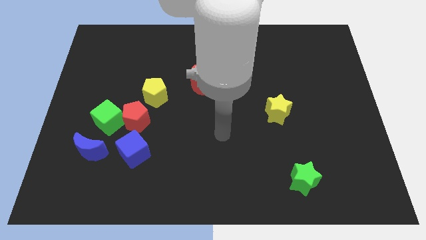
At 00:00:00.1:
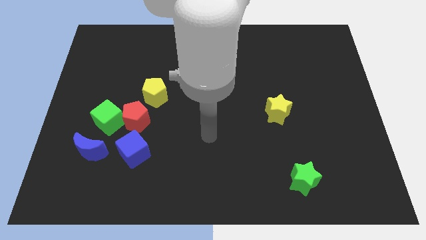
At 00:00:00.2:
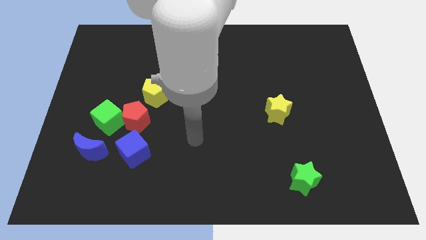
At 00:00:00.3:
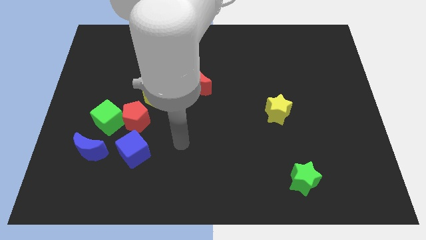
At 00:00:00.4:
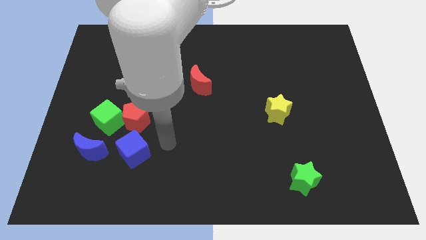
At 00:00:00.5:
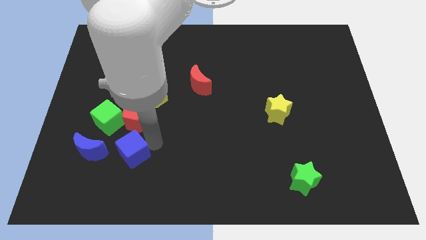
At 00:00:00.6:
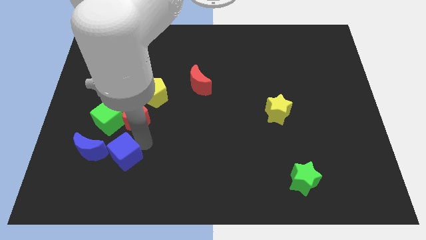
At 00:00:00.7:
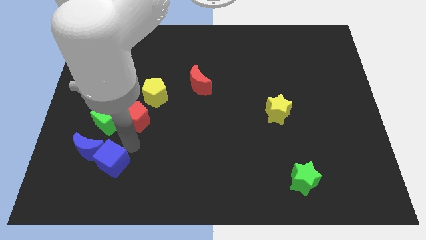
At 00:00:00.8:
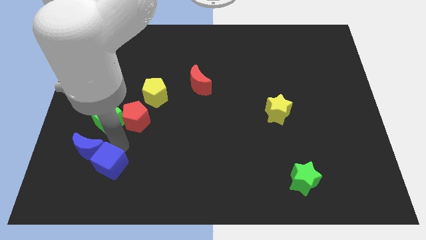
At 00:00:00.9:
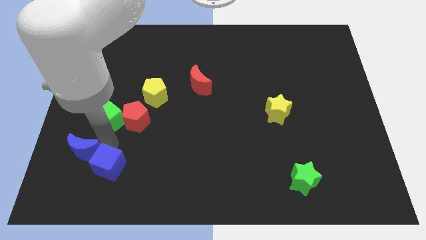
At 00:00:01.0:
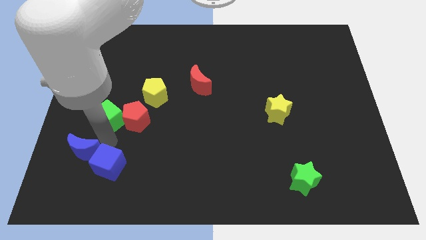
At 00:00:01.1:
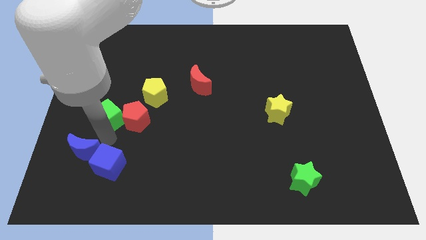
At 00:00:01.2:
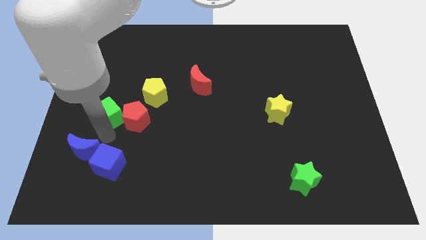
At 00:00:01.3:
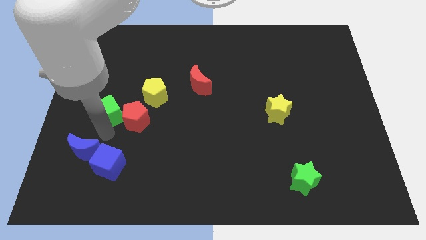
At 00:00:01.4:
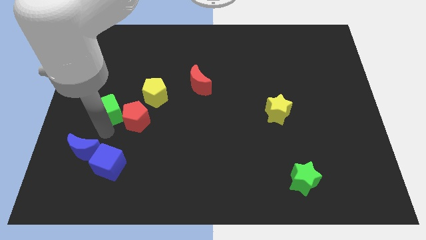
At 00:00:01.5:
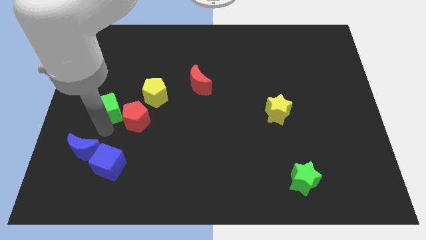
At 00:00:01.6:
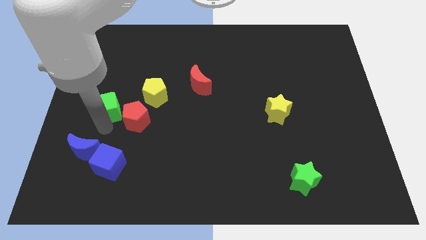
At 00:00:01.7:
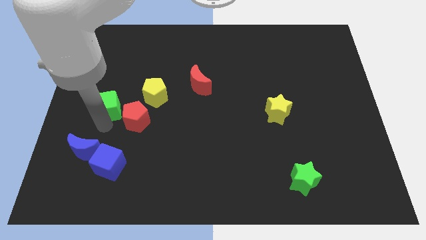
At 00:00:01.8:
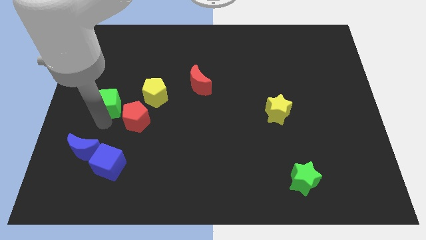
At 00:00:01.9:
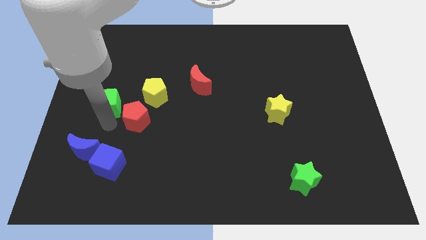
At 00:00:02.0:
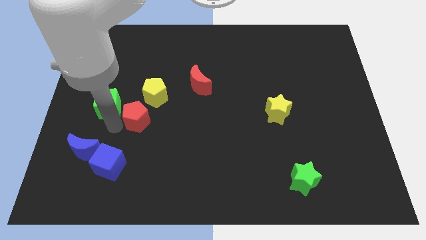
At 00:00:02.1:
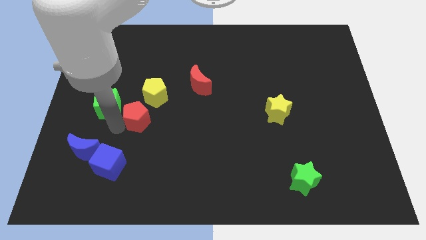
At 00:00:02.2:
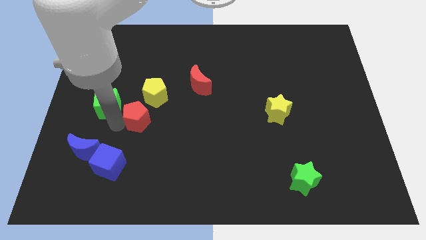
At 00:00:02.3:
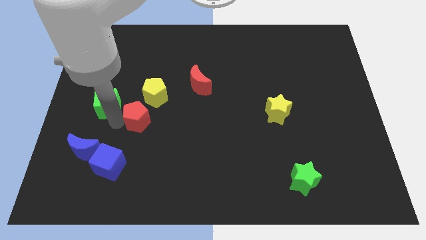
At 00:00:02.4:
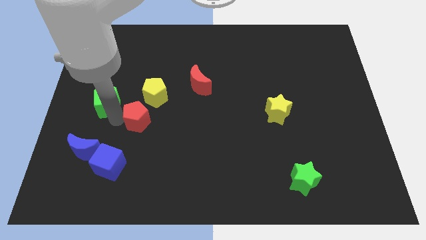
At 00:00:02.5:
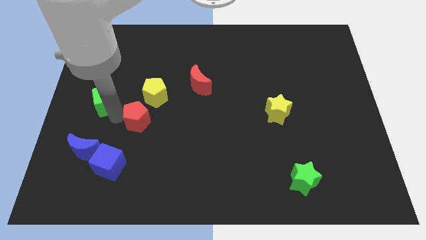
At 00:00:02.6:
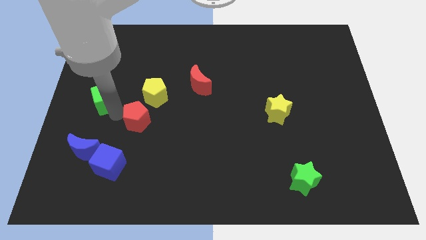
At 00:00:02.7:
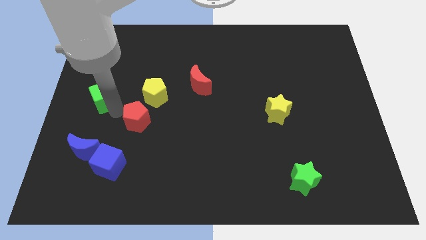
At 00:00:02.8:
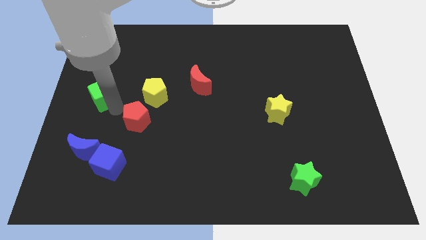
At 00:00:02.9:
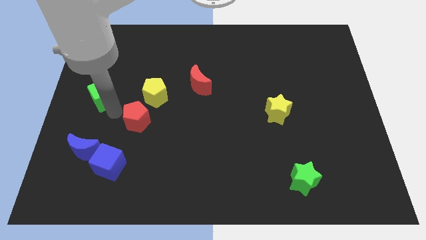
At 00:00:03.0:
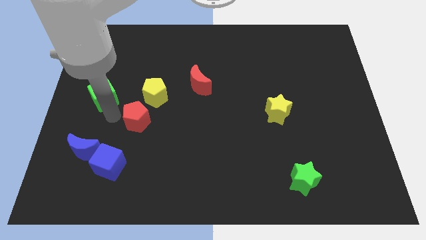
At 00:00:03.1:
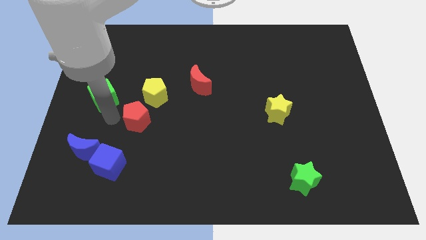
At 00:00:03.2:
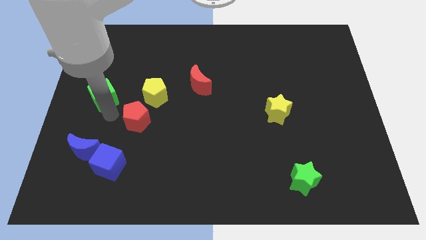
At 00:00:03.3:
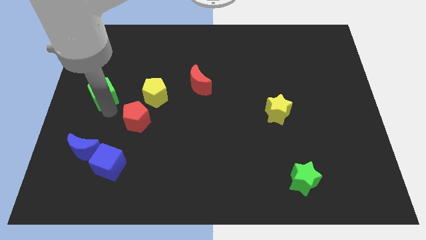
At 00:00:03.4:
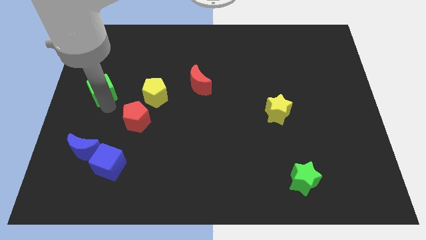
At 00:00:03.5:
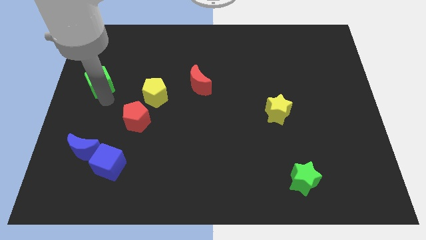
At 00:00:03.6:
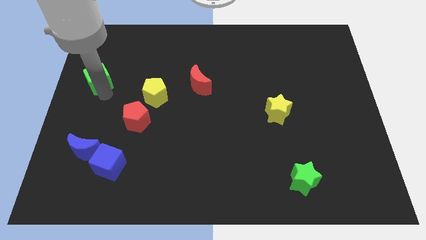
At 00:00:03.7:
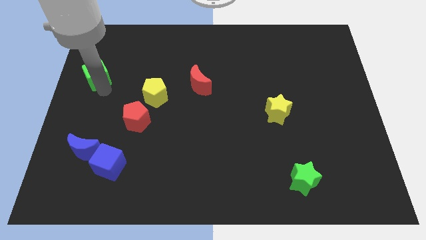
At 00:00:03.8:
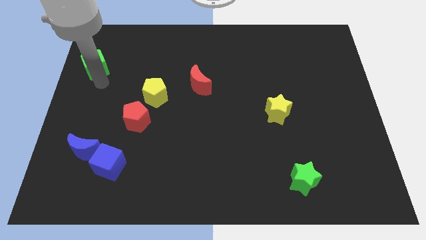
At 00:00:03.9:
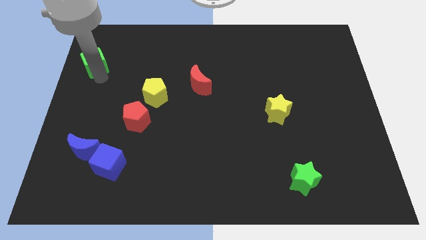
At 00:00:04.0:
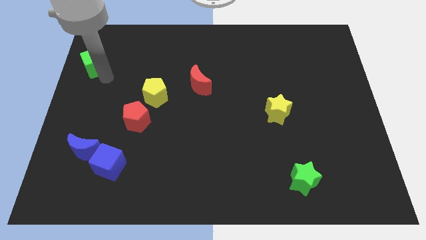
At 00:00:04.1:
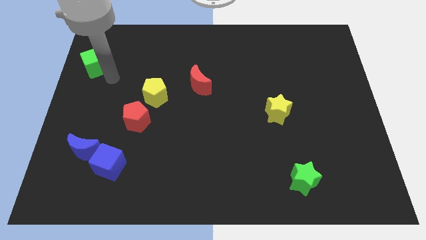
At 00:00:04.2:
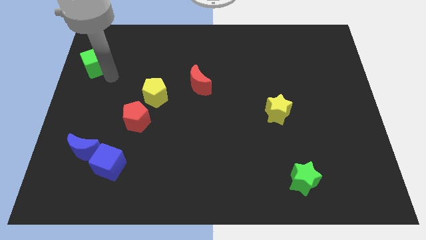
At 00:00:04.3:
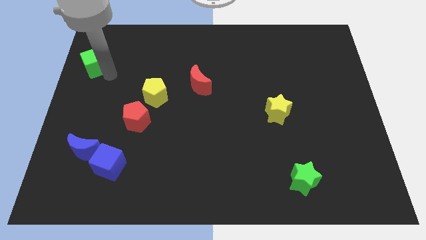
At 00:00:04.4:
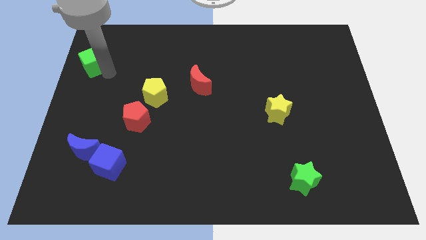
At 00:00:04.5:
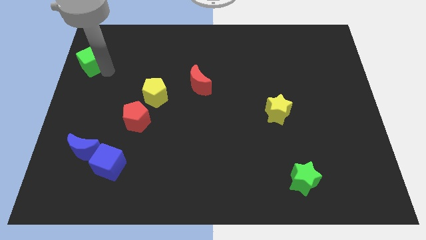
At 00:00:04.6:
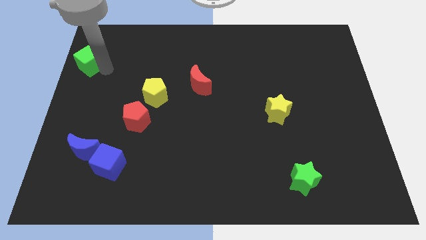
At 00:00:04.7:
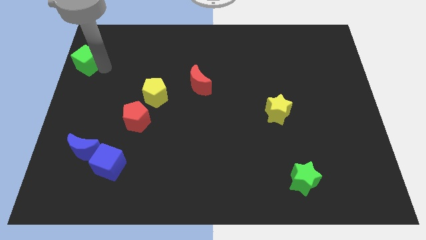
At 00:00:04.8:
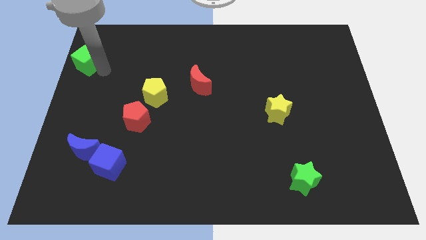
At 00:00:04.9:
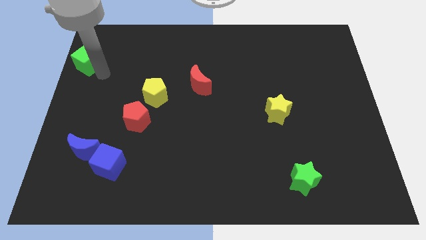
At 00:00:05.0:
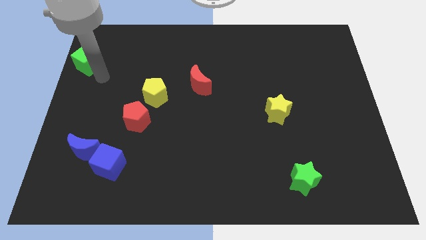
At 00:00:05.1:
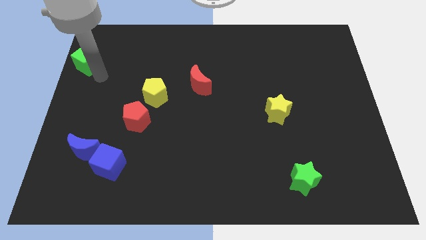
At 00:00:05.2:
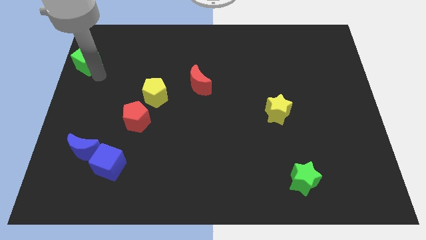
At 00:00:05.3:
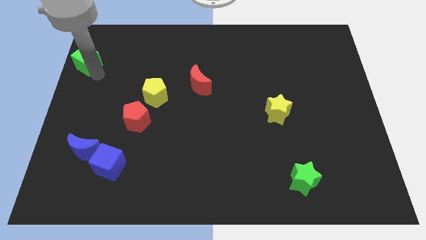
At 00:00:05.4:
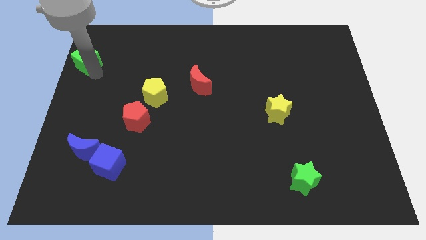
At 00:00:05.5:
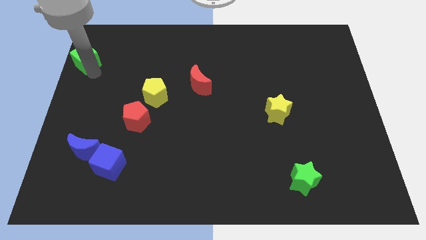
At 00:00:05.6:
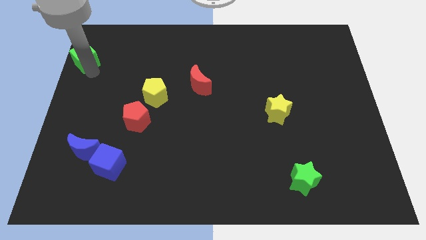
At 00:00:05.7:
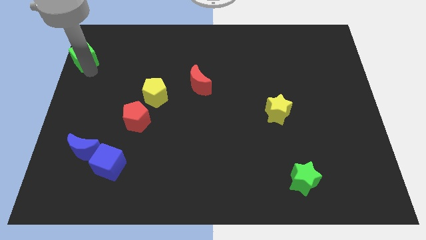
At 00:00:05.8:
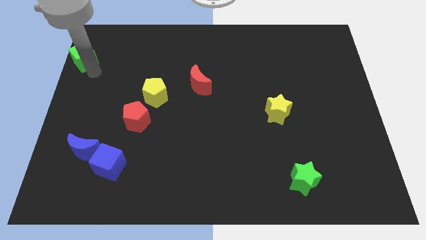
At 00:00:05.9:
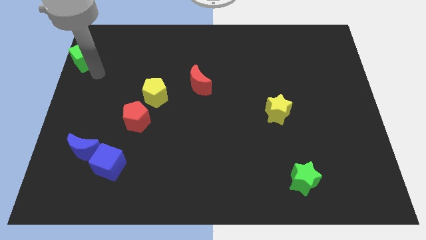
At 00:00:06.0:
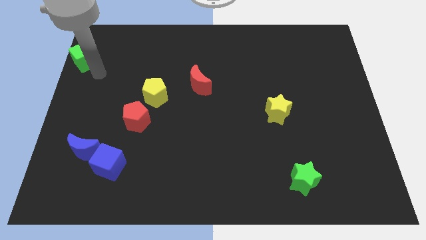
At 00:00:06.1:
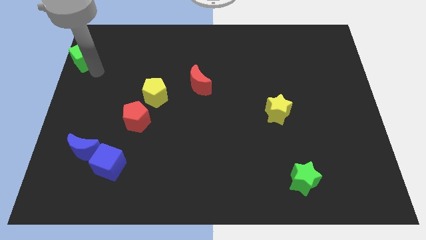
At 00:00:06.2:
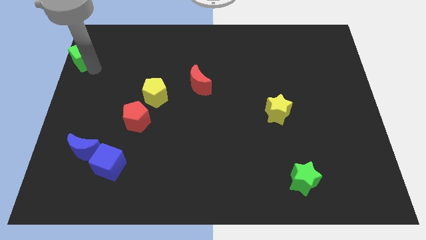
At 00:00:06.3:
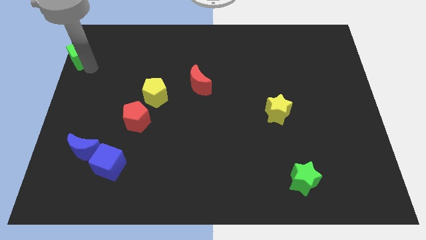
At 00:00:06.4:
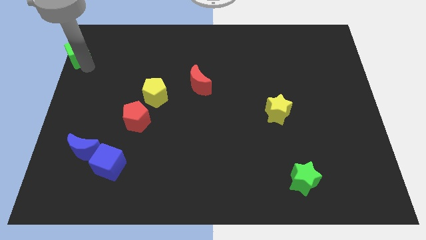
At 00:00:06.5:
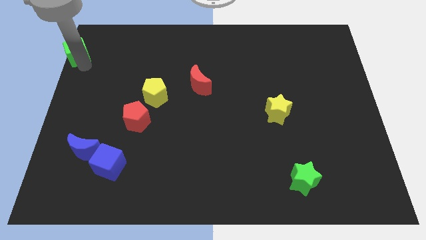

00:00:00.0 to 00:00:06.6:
slide the green cube to the top left of the board

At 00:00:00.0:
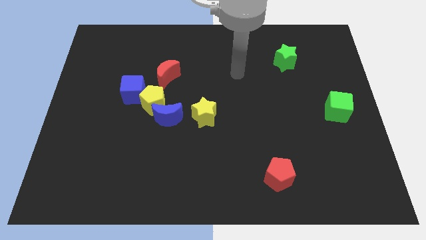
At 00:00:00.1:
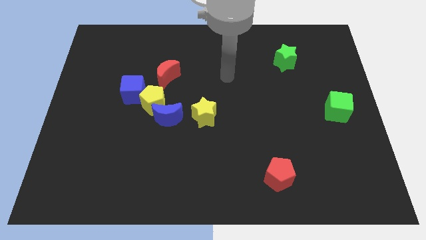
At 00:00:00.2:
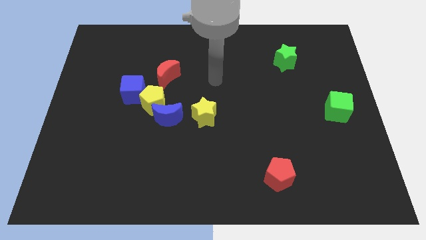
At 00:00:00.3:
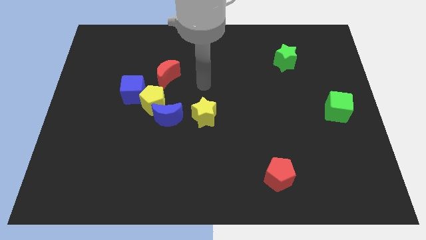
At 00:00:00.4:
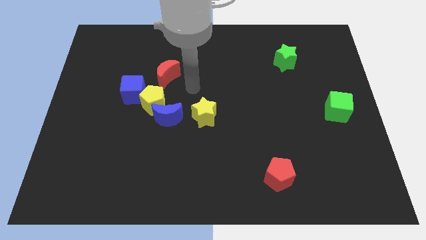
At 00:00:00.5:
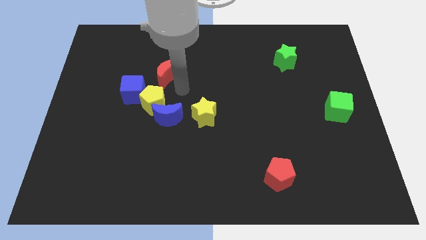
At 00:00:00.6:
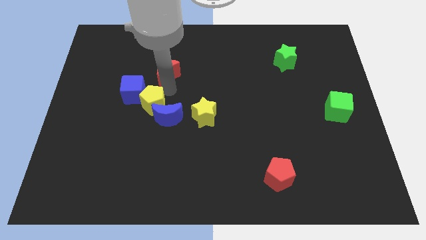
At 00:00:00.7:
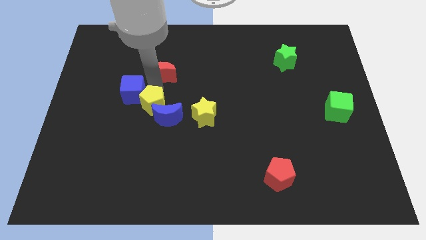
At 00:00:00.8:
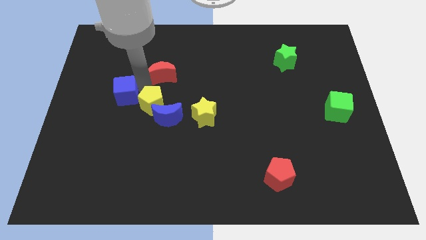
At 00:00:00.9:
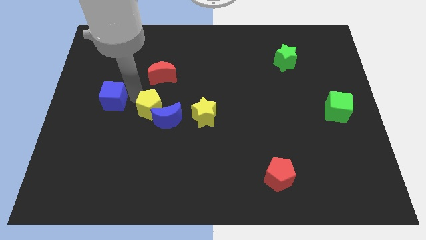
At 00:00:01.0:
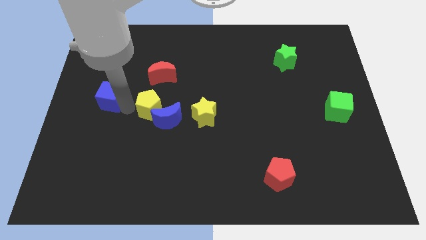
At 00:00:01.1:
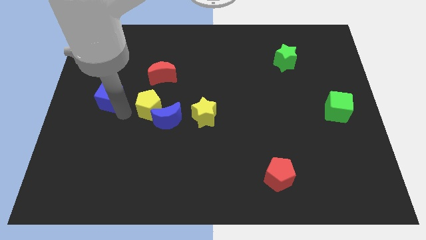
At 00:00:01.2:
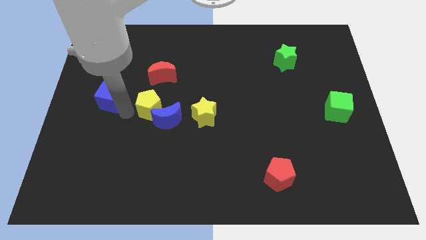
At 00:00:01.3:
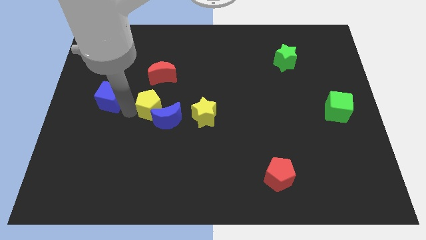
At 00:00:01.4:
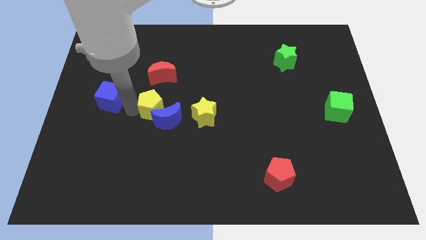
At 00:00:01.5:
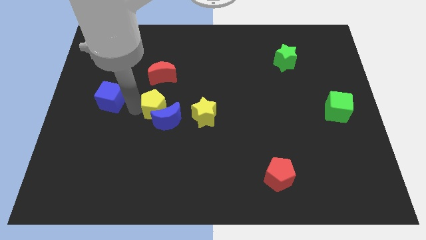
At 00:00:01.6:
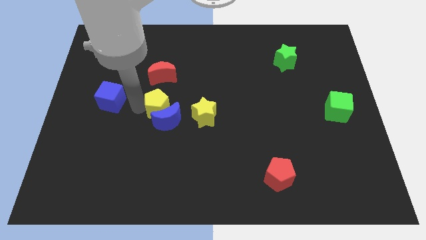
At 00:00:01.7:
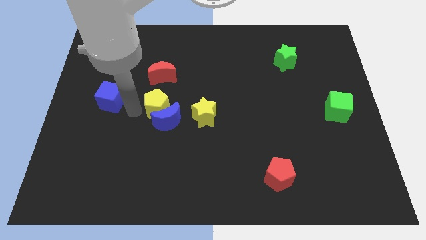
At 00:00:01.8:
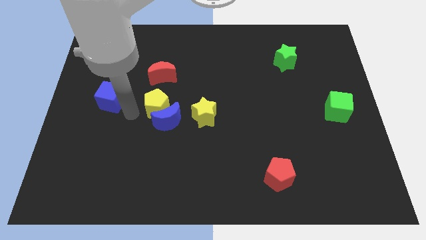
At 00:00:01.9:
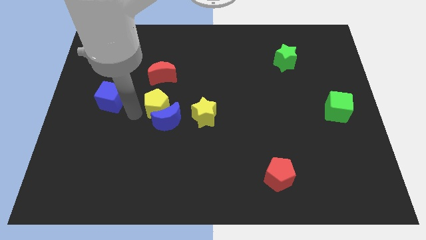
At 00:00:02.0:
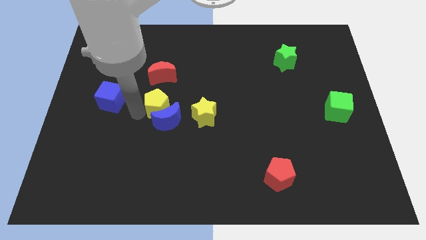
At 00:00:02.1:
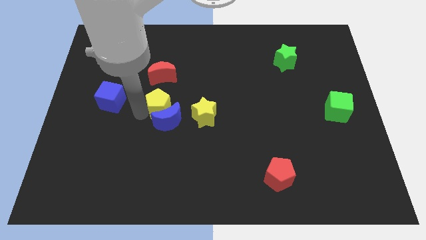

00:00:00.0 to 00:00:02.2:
push the yellow pentagon to the middle
